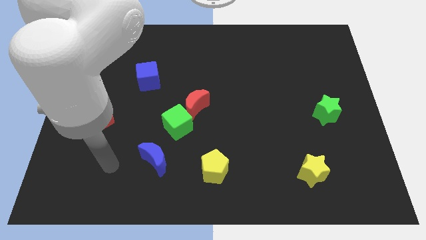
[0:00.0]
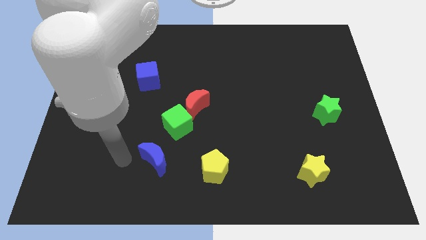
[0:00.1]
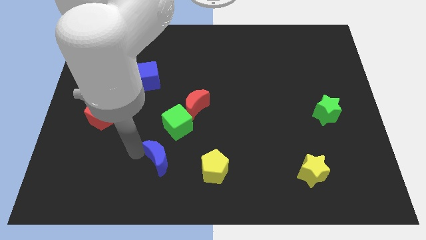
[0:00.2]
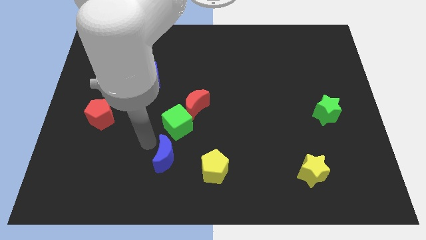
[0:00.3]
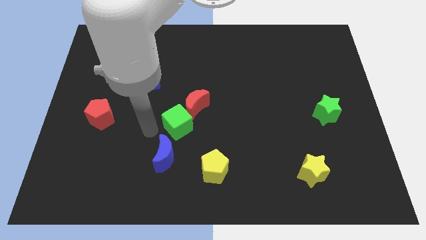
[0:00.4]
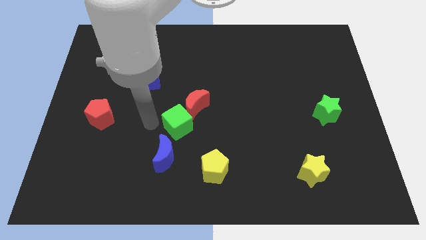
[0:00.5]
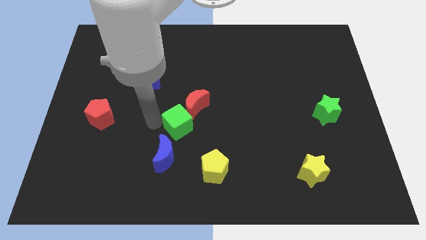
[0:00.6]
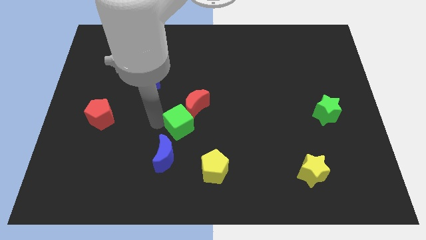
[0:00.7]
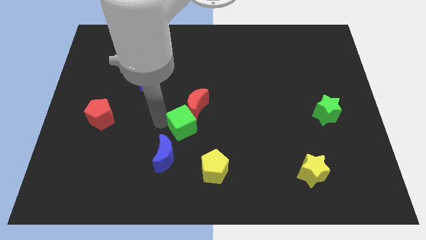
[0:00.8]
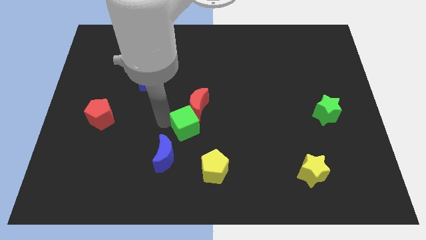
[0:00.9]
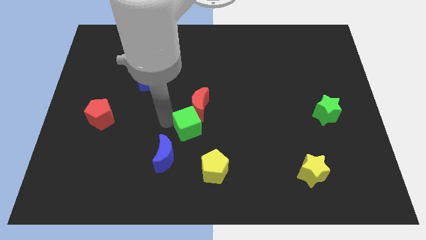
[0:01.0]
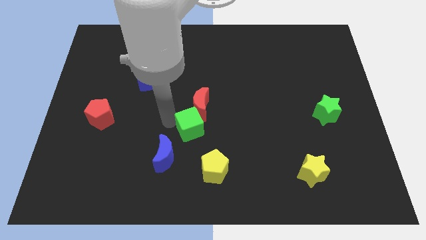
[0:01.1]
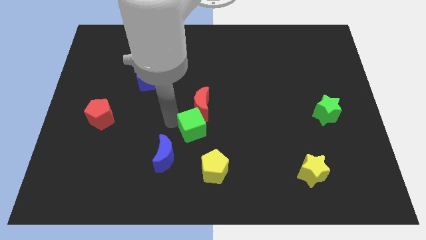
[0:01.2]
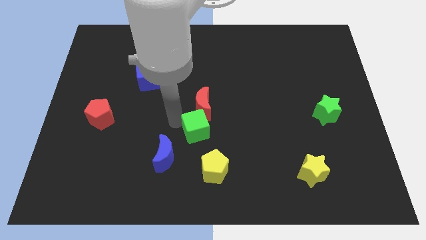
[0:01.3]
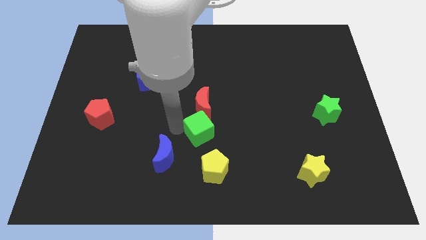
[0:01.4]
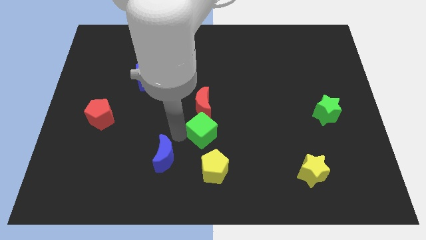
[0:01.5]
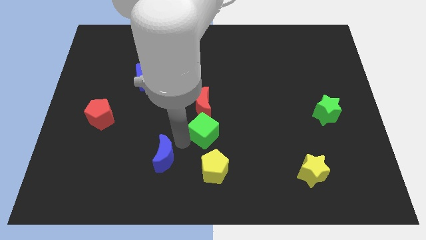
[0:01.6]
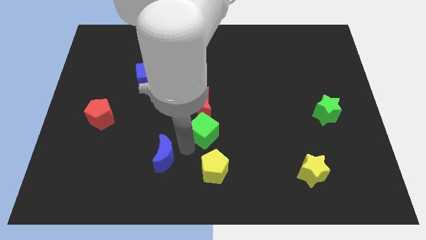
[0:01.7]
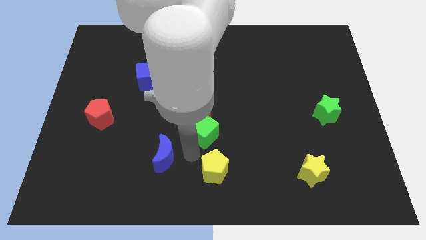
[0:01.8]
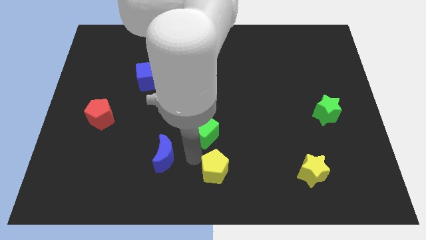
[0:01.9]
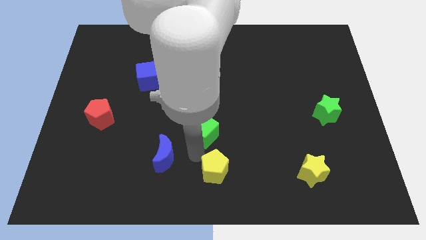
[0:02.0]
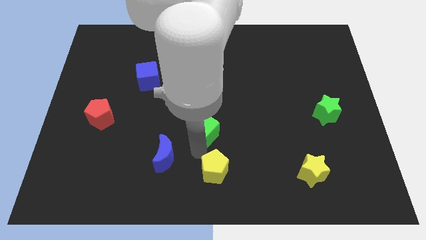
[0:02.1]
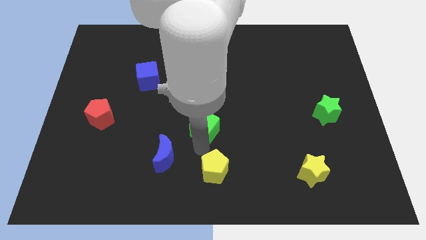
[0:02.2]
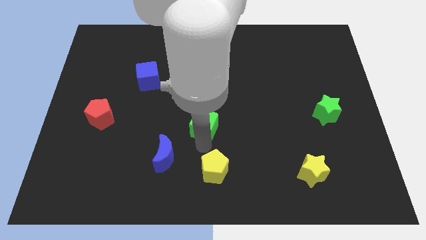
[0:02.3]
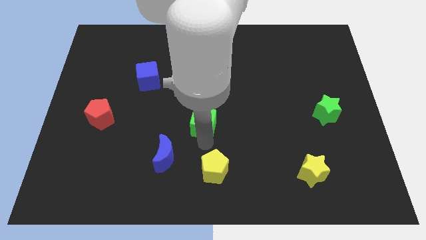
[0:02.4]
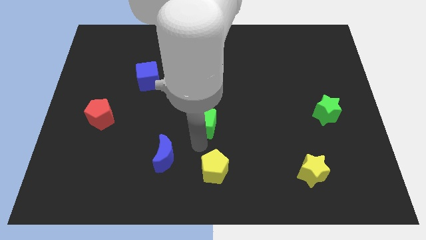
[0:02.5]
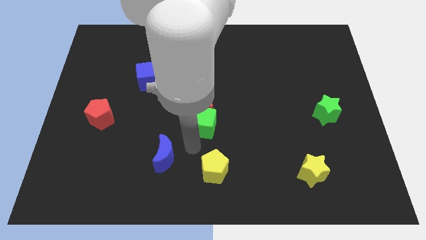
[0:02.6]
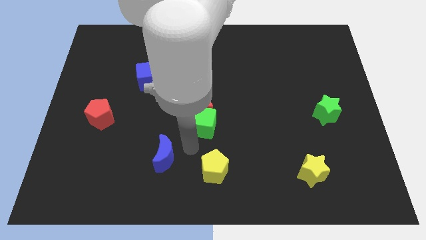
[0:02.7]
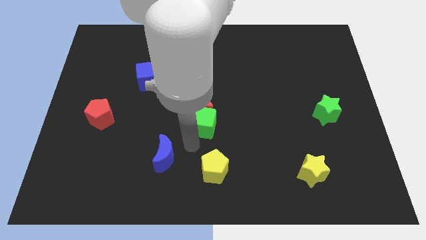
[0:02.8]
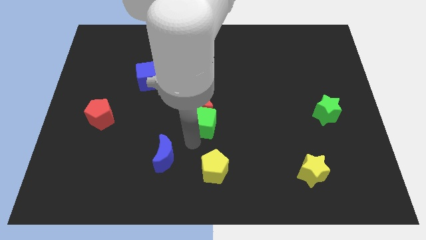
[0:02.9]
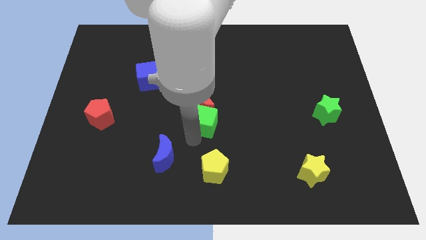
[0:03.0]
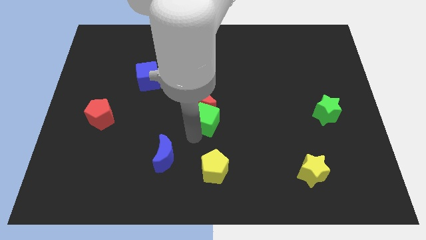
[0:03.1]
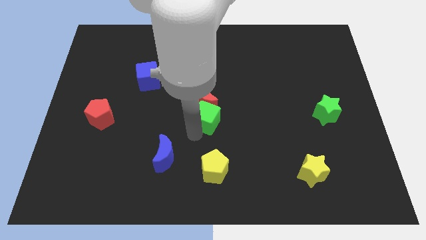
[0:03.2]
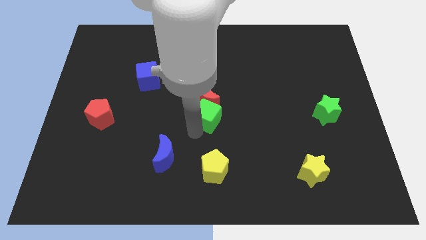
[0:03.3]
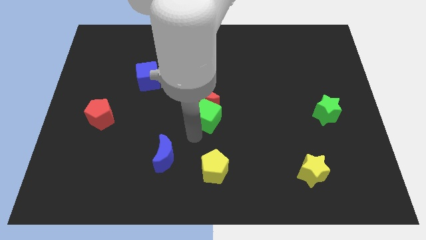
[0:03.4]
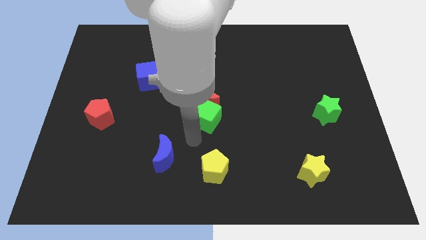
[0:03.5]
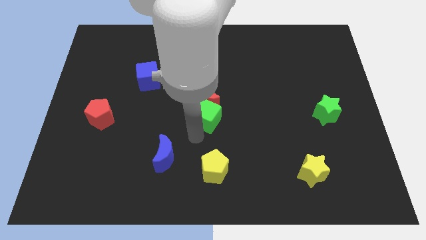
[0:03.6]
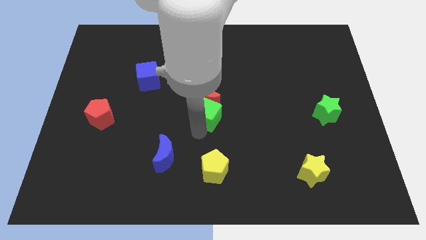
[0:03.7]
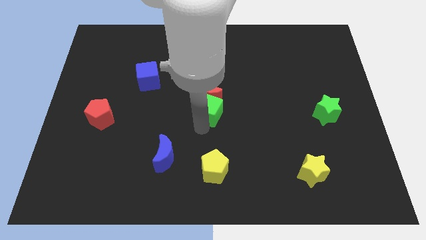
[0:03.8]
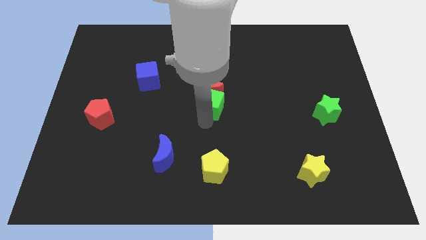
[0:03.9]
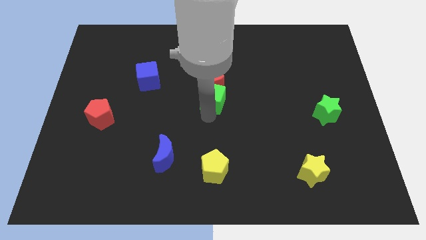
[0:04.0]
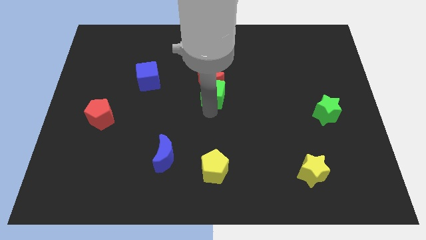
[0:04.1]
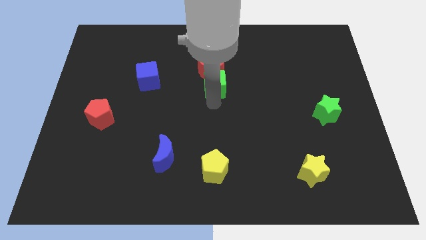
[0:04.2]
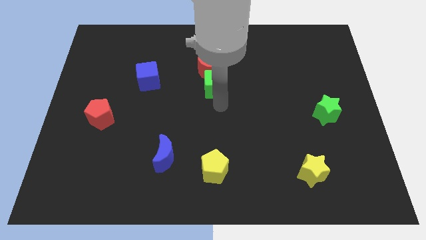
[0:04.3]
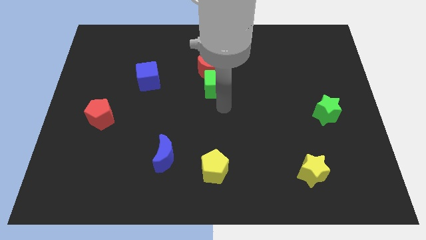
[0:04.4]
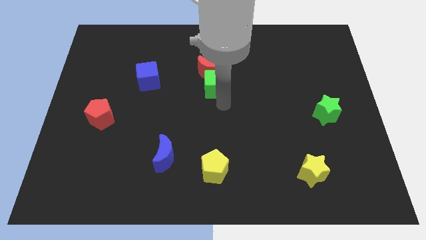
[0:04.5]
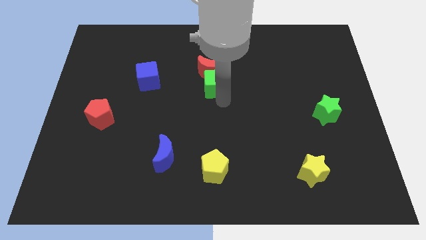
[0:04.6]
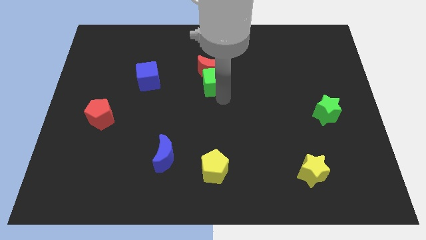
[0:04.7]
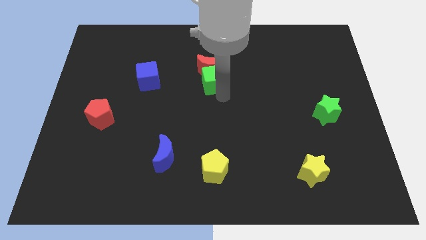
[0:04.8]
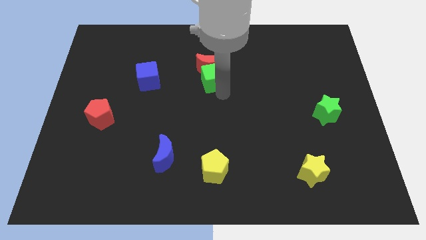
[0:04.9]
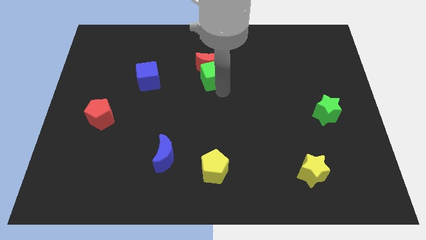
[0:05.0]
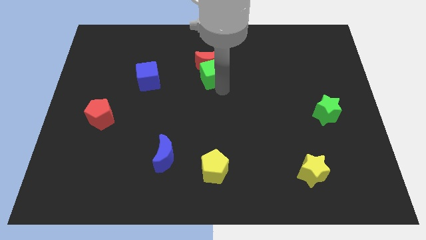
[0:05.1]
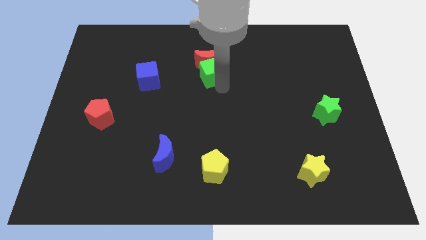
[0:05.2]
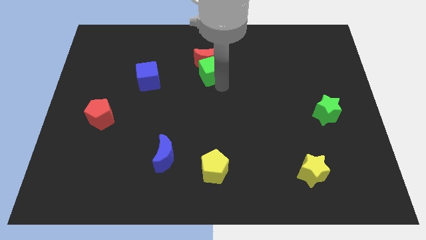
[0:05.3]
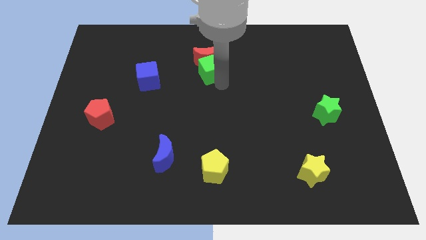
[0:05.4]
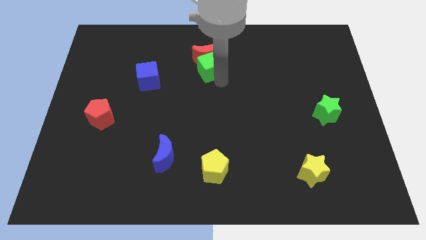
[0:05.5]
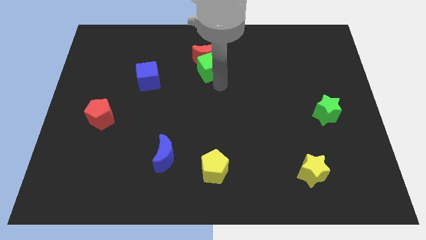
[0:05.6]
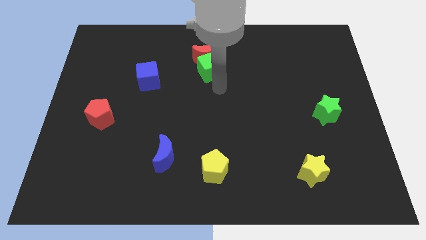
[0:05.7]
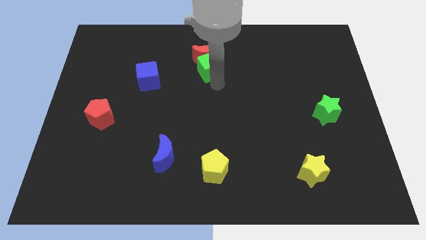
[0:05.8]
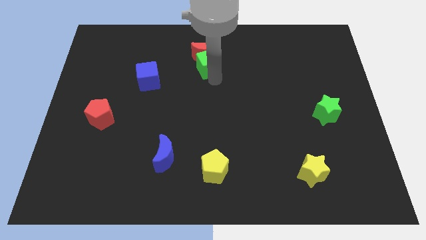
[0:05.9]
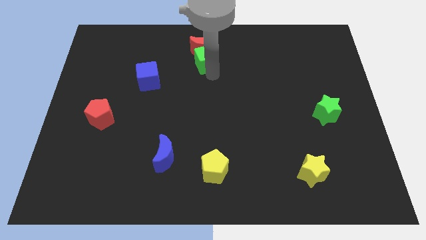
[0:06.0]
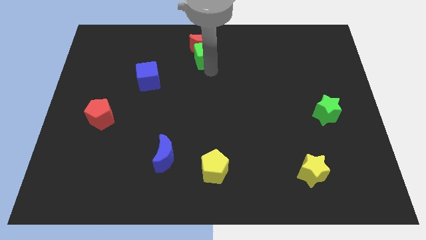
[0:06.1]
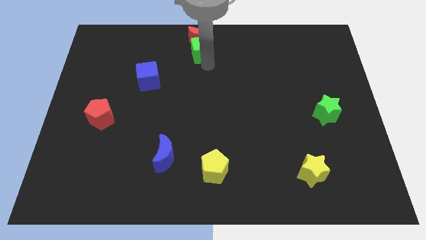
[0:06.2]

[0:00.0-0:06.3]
push the green cube to the top side
